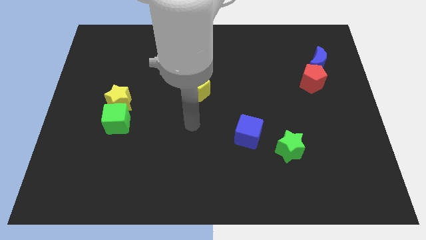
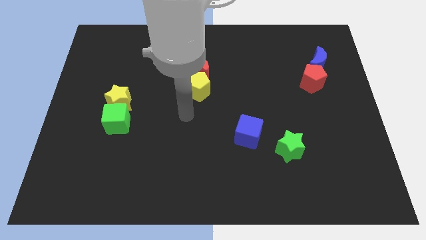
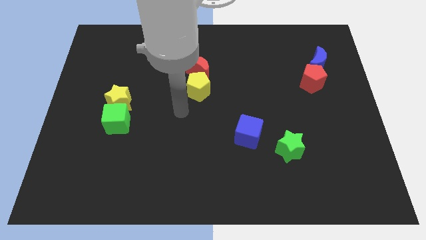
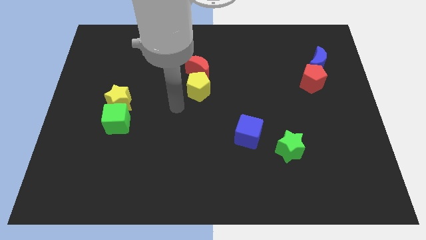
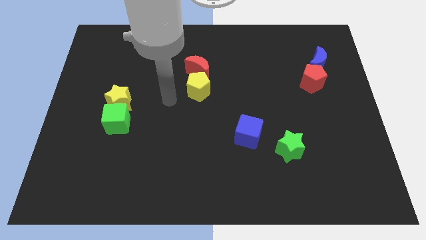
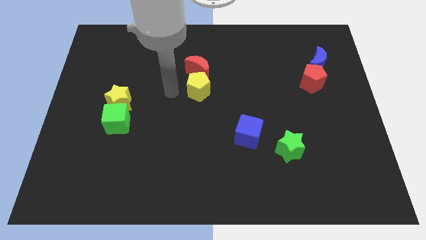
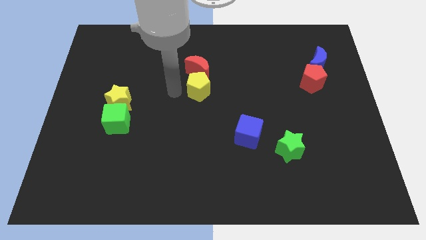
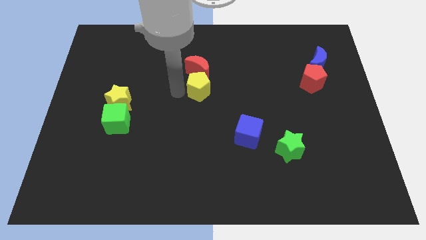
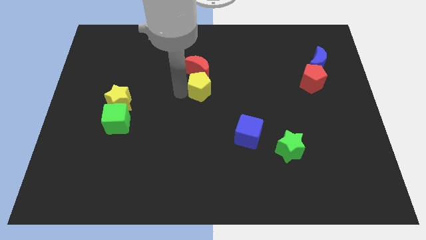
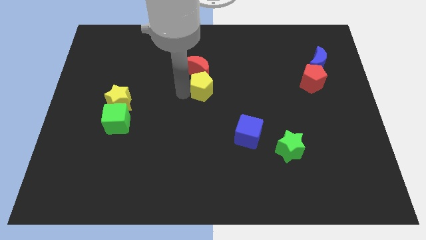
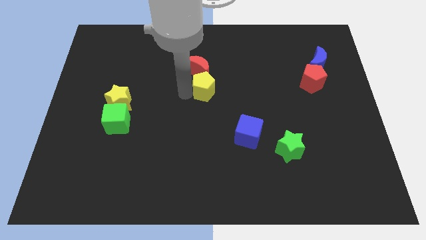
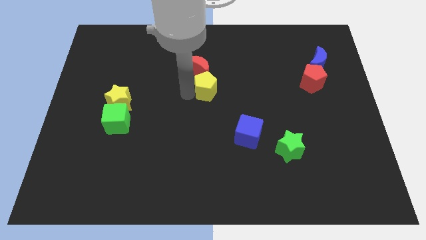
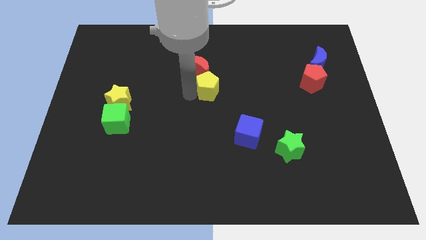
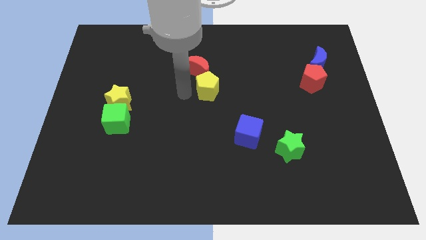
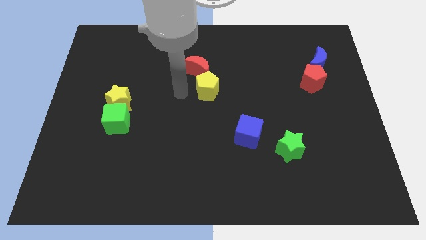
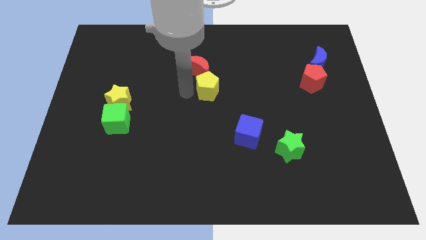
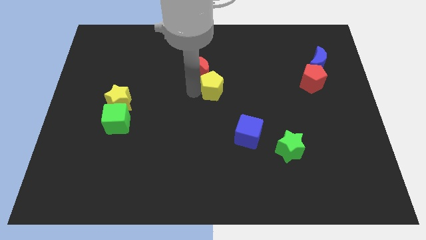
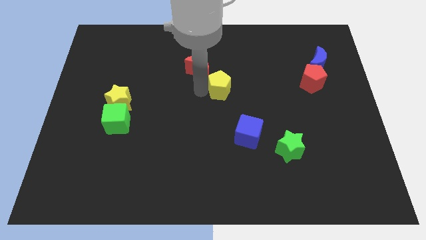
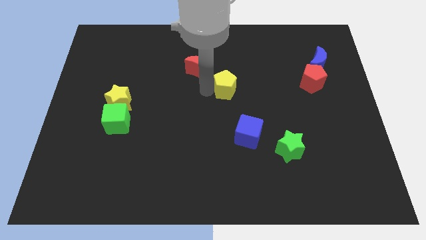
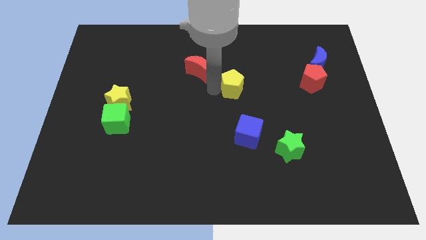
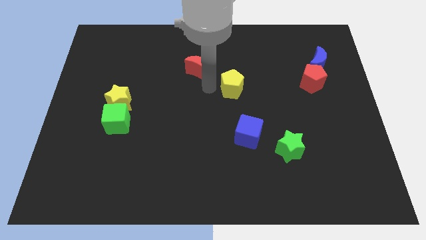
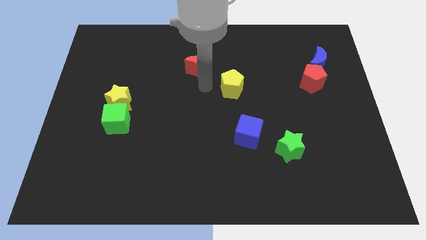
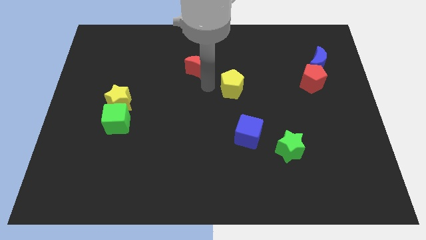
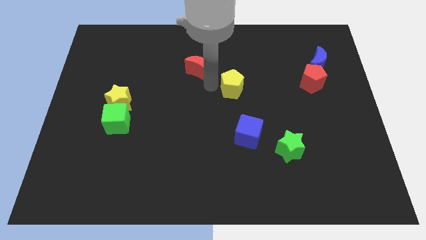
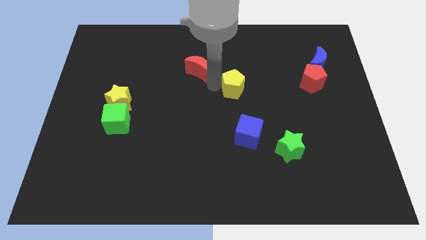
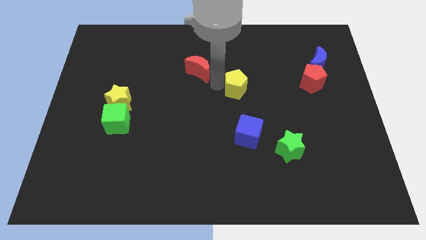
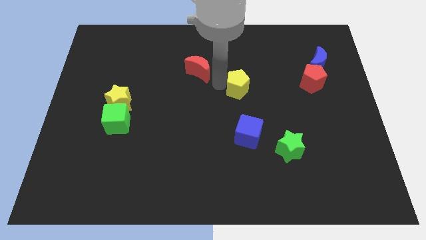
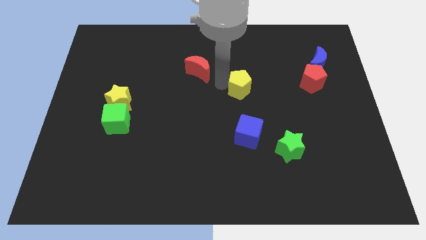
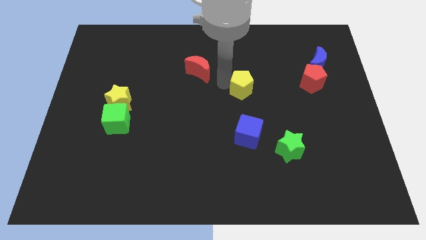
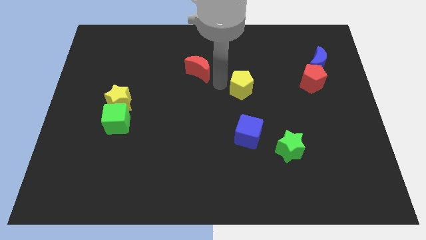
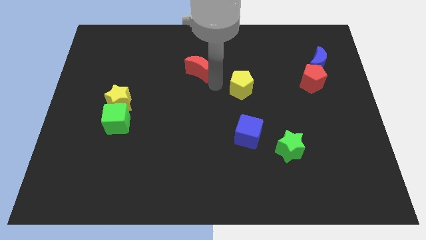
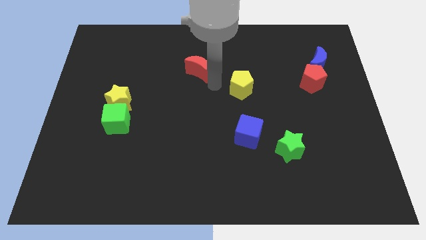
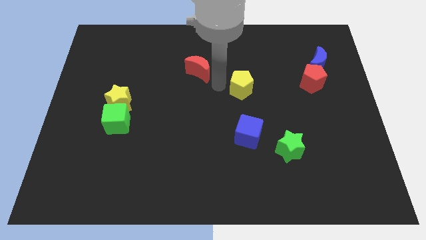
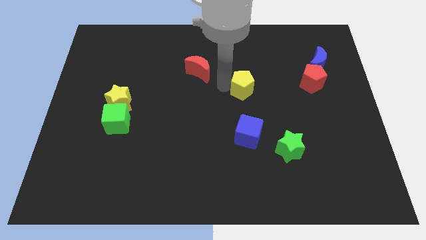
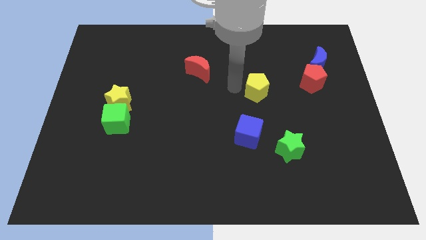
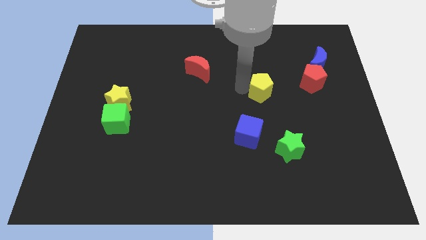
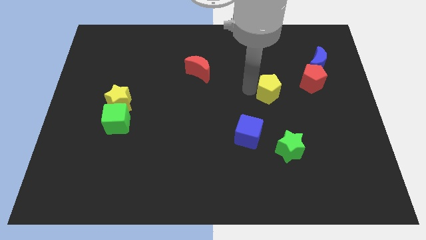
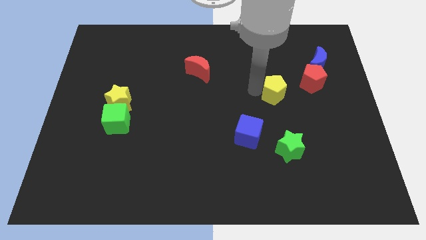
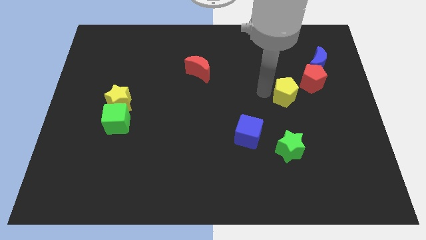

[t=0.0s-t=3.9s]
move the yellow pentagon to the right

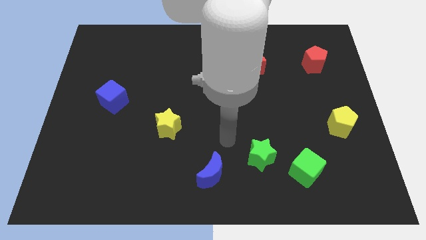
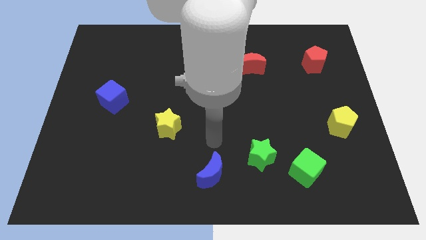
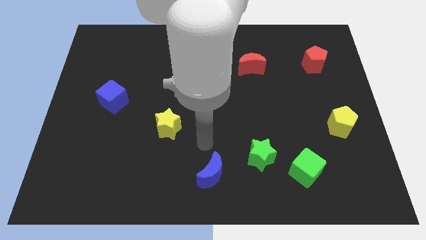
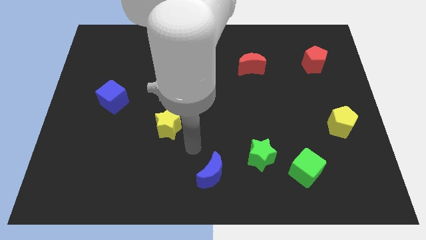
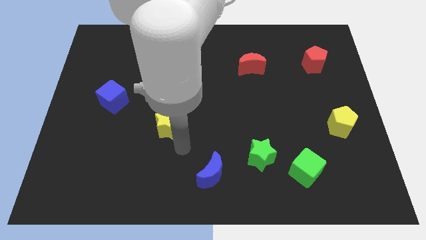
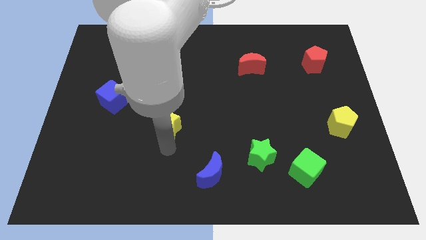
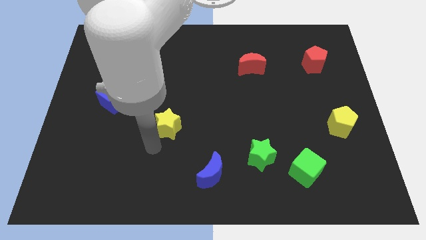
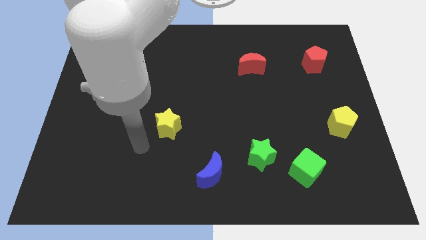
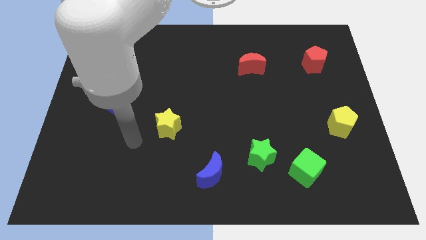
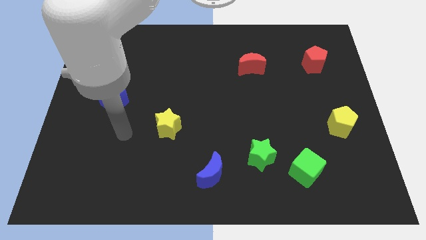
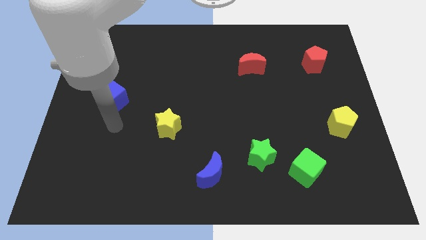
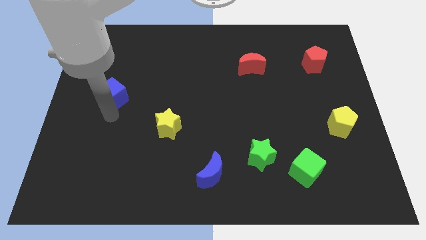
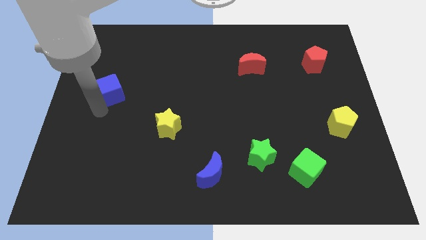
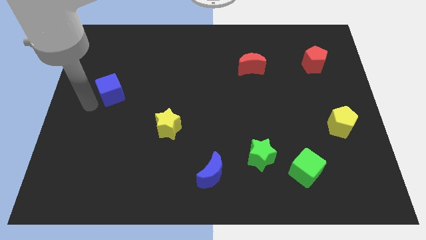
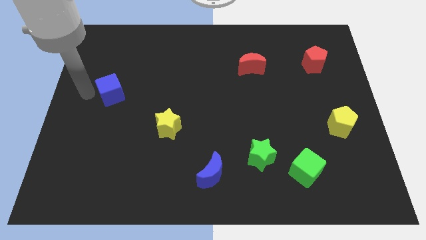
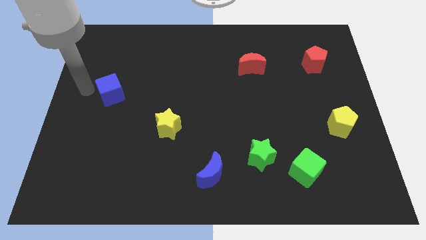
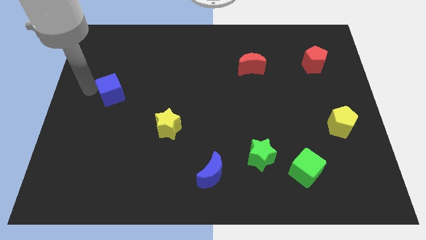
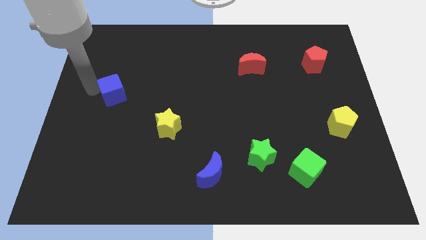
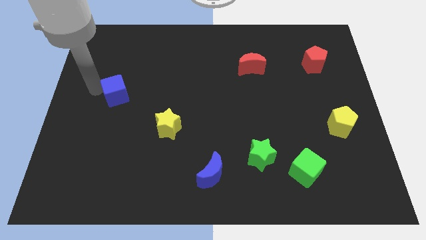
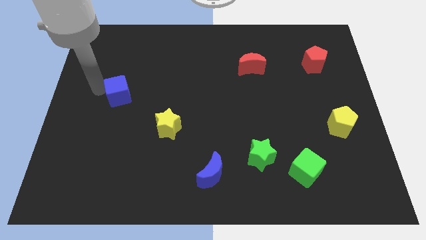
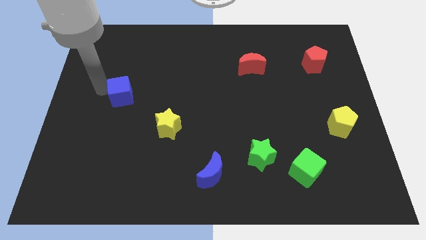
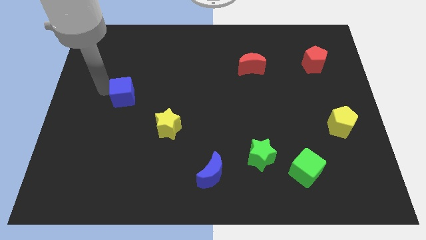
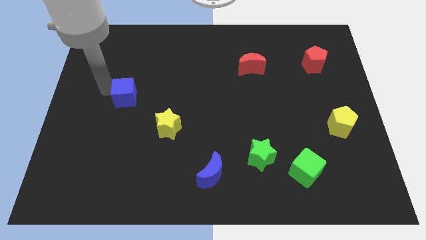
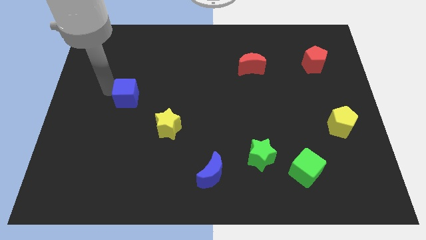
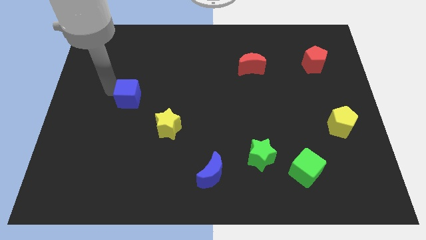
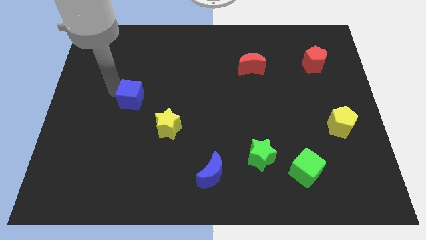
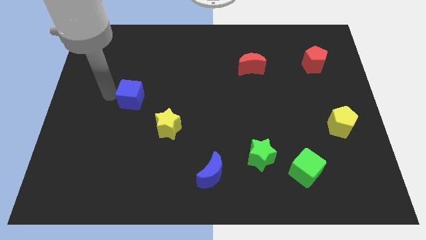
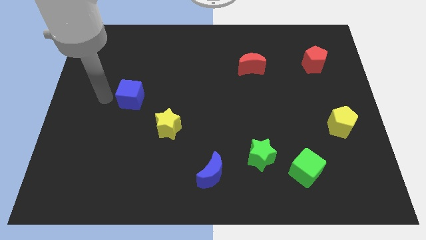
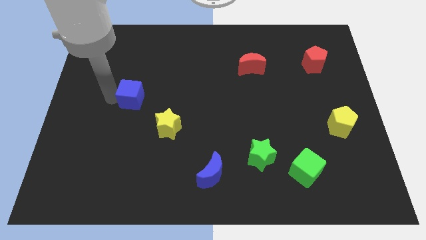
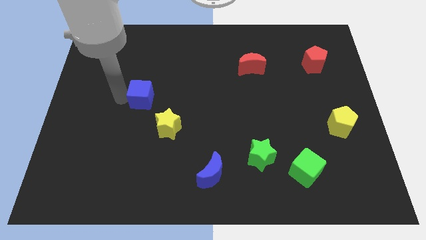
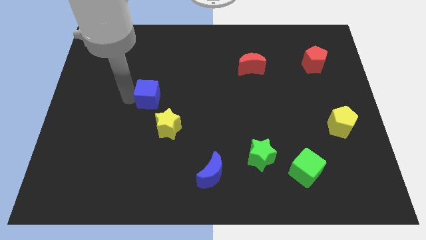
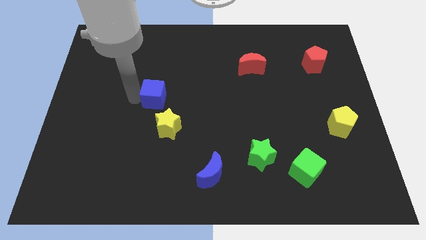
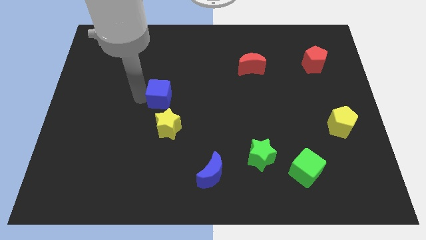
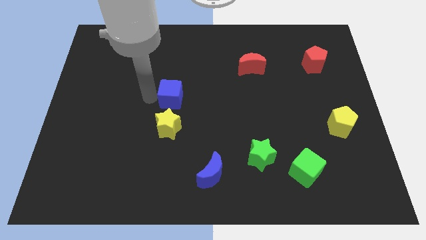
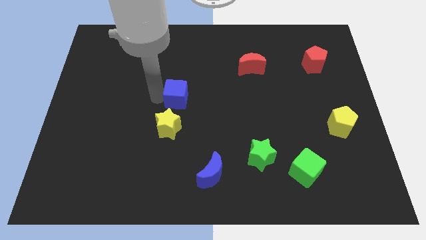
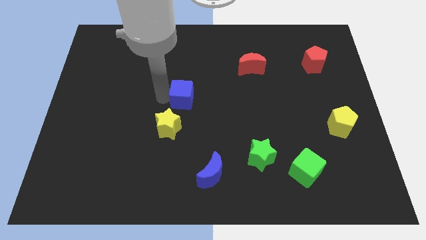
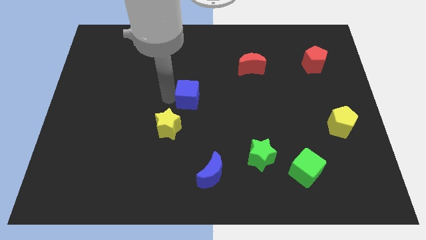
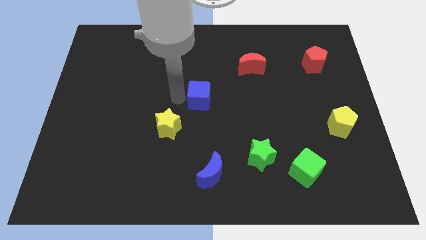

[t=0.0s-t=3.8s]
slide the blue cube to the right

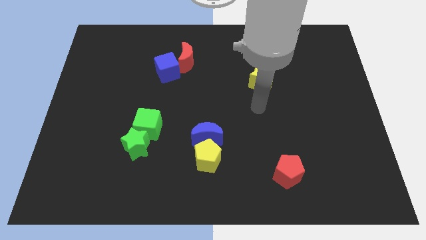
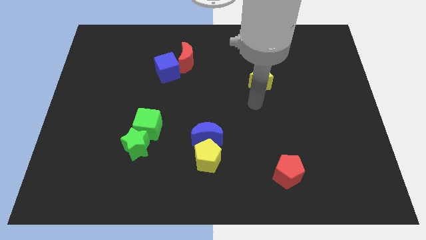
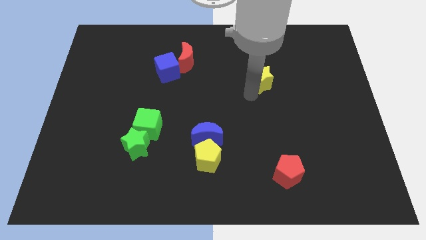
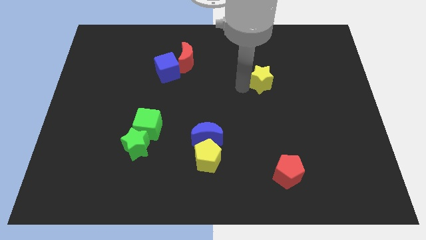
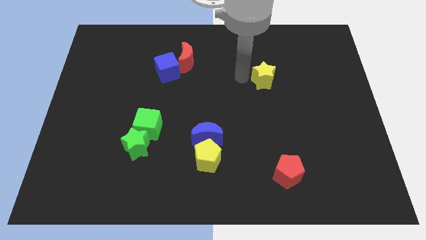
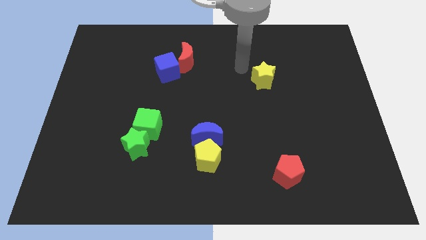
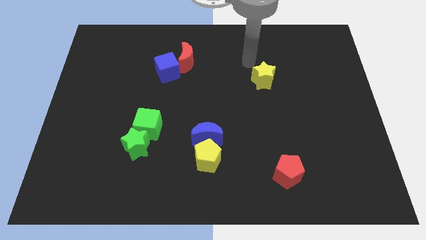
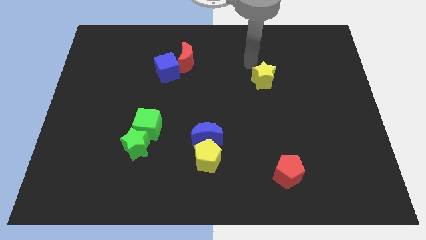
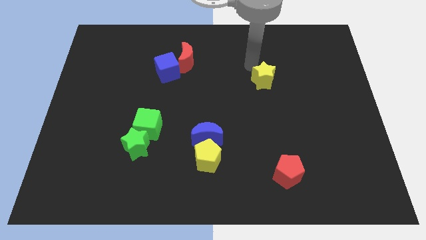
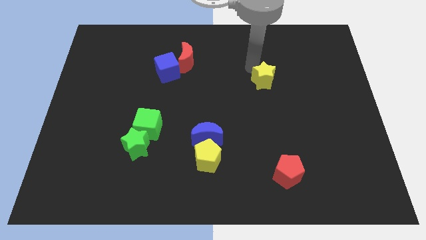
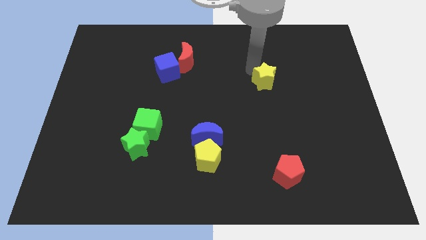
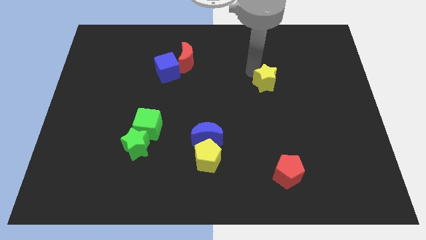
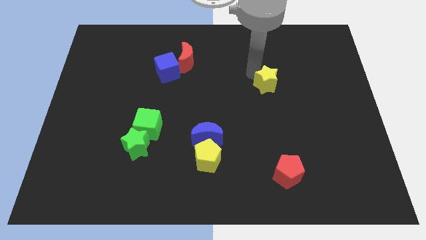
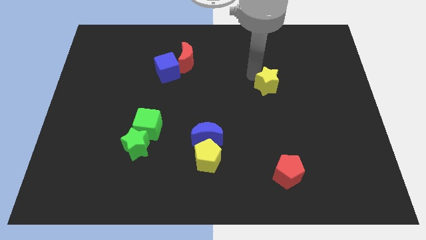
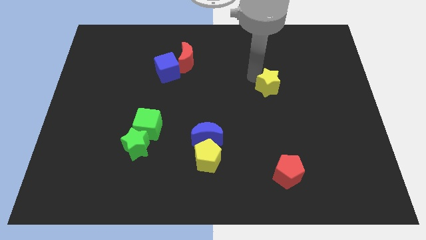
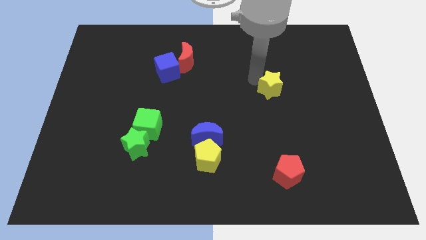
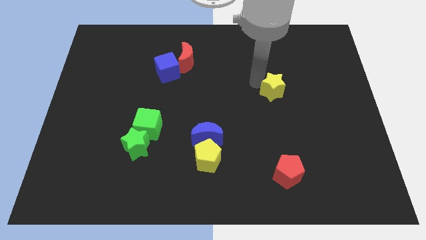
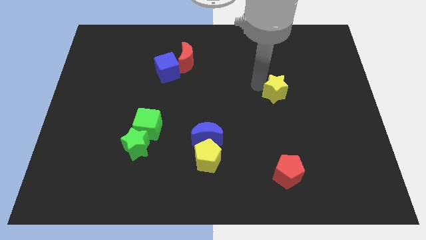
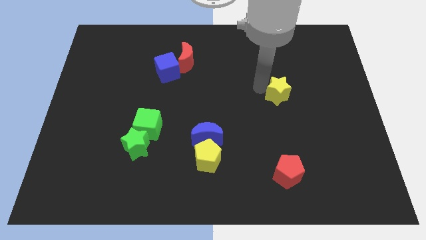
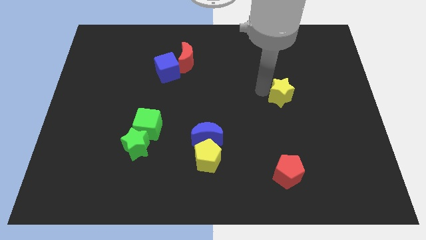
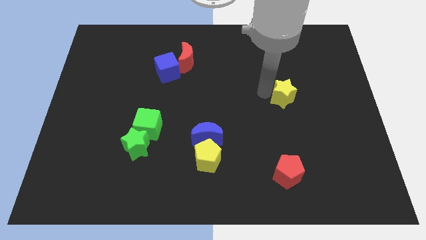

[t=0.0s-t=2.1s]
slightly move the yellow star down and right diagonally
